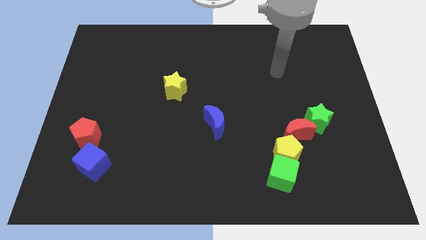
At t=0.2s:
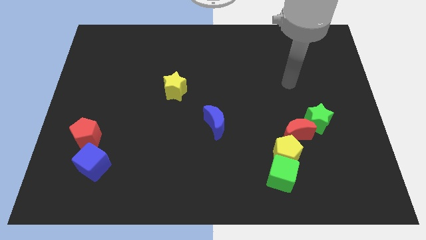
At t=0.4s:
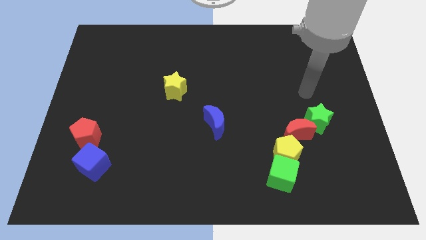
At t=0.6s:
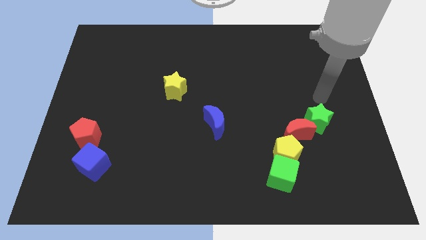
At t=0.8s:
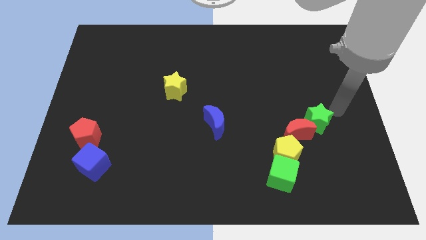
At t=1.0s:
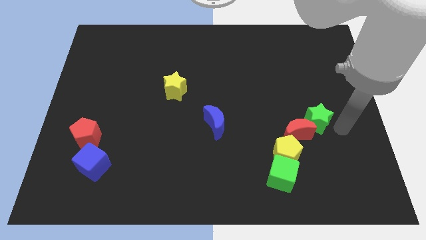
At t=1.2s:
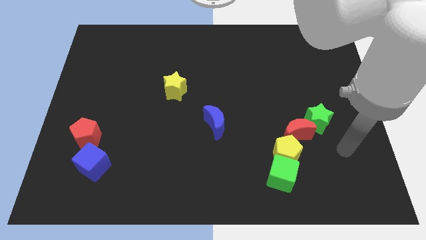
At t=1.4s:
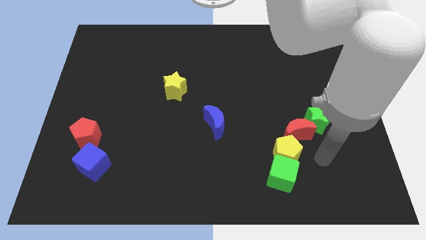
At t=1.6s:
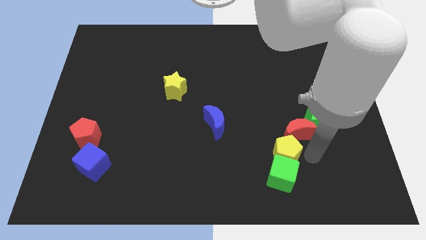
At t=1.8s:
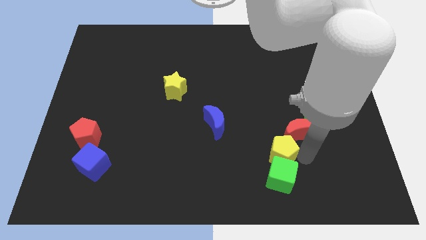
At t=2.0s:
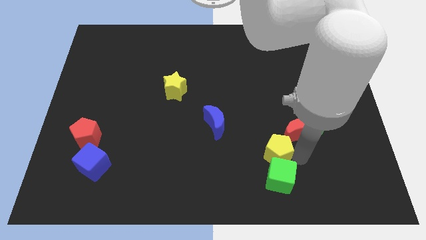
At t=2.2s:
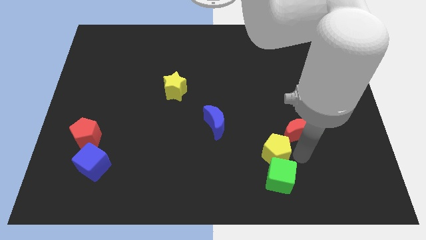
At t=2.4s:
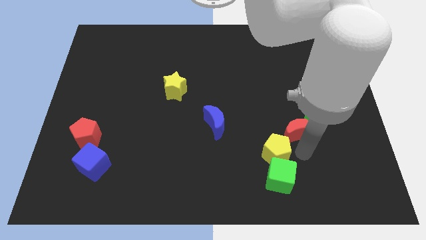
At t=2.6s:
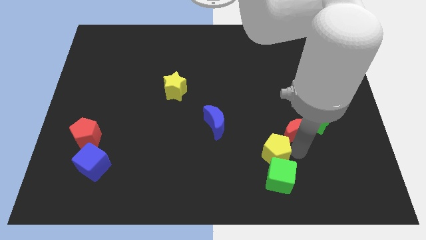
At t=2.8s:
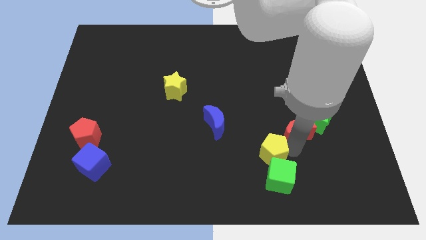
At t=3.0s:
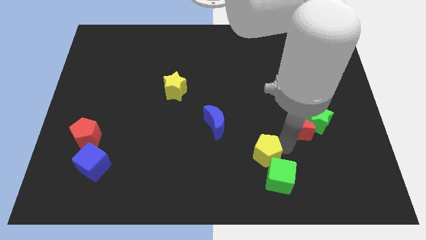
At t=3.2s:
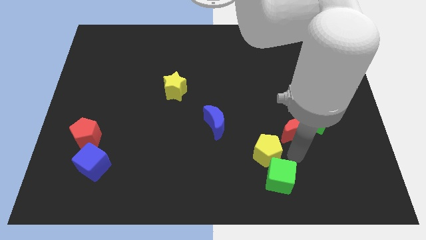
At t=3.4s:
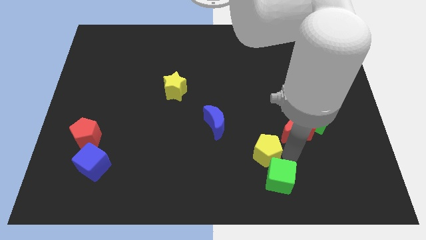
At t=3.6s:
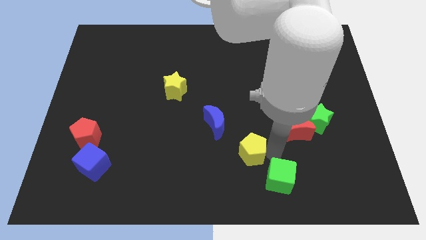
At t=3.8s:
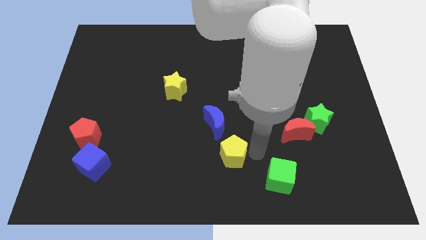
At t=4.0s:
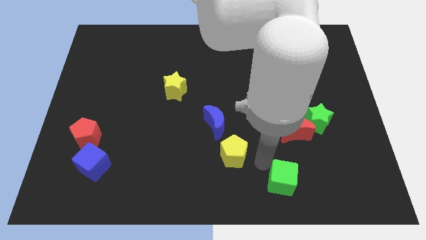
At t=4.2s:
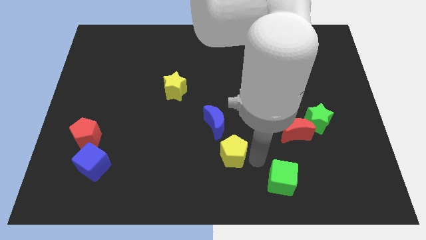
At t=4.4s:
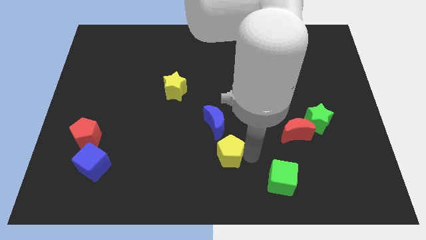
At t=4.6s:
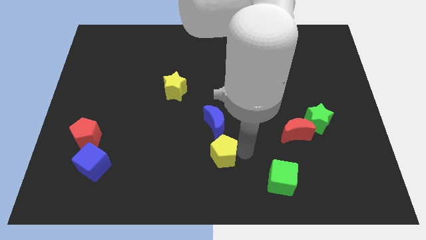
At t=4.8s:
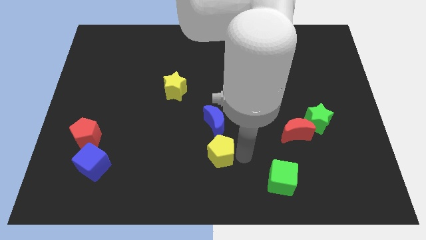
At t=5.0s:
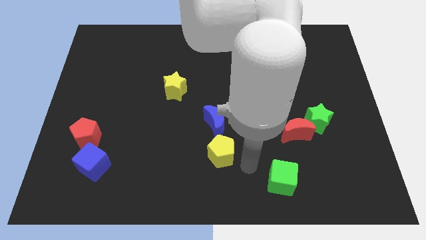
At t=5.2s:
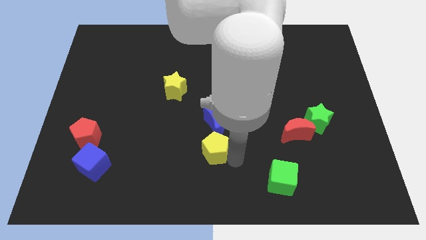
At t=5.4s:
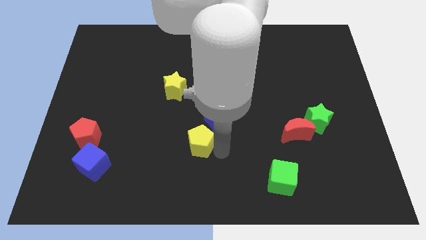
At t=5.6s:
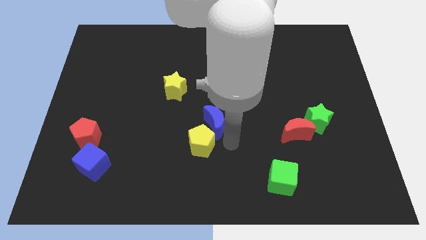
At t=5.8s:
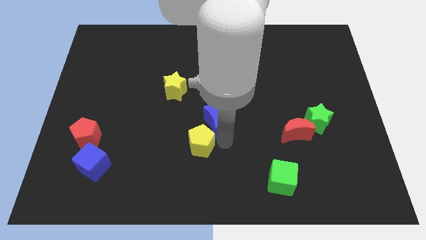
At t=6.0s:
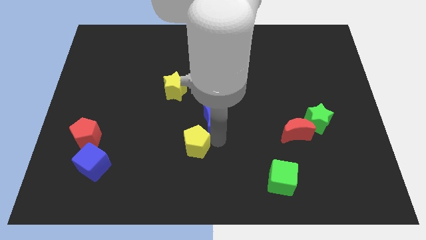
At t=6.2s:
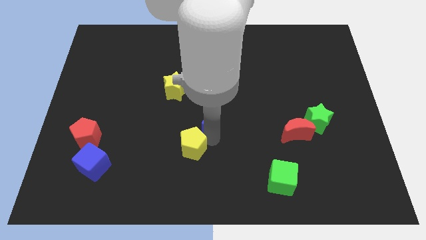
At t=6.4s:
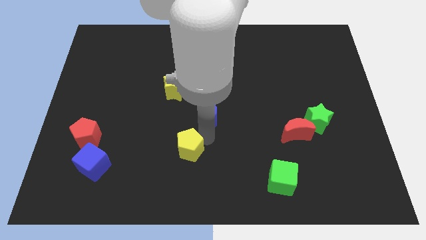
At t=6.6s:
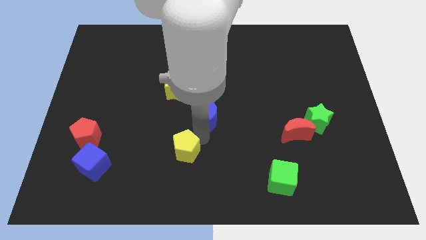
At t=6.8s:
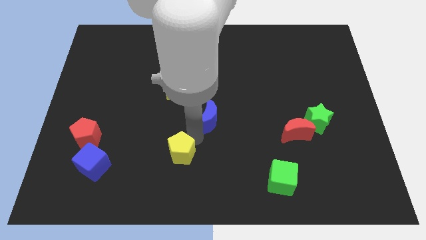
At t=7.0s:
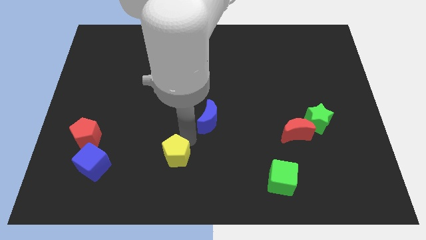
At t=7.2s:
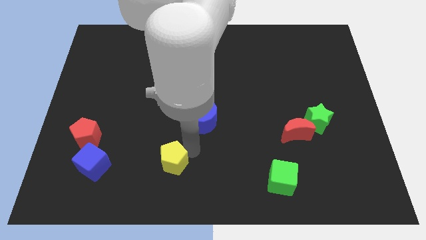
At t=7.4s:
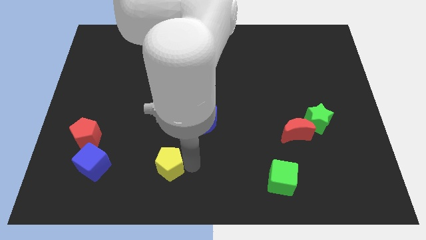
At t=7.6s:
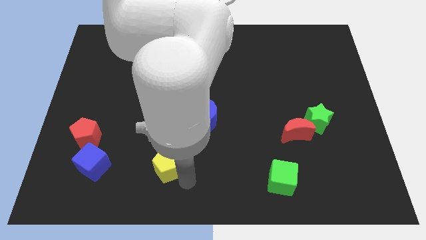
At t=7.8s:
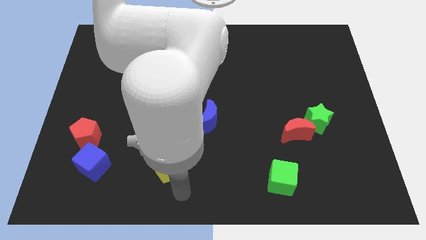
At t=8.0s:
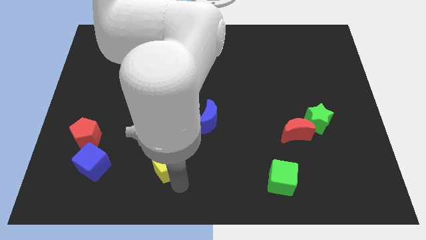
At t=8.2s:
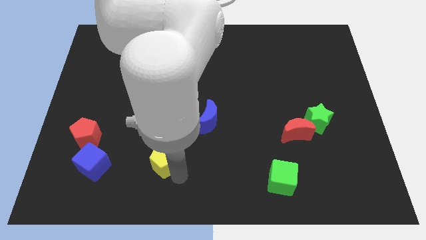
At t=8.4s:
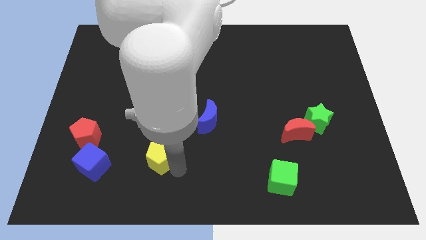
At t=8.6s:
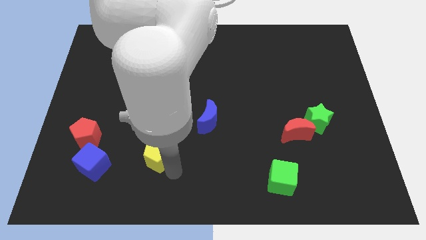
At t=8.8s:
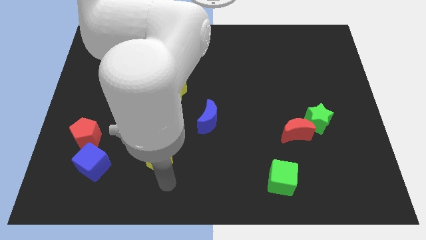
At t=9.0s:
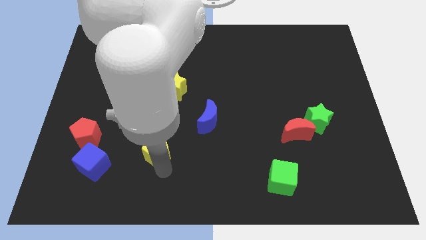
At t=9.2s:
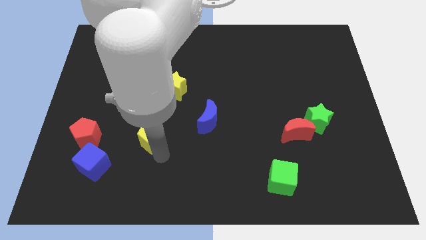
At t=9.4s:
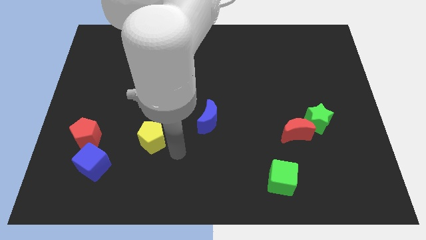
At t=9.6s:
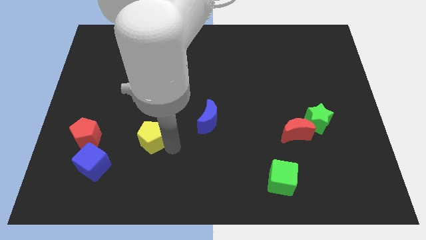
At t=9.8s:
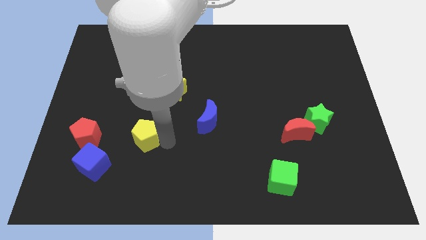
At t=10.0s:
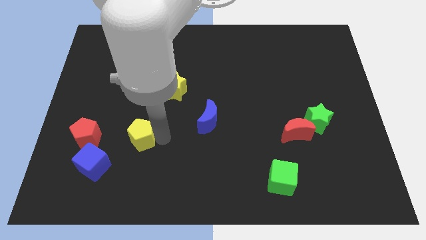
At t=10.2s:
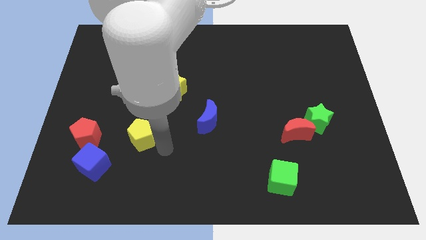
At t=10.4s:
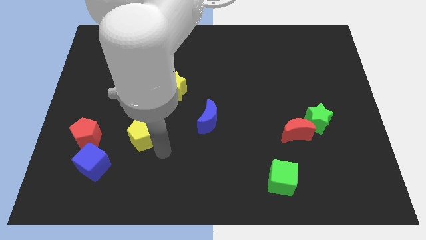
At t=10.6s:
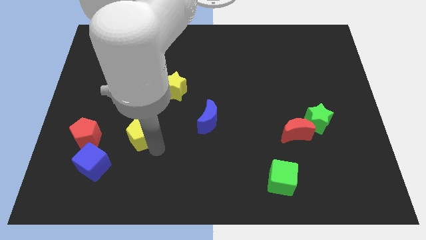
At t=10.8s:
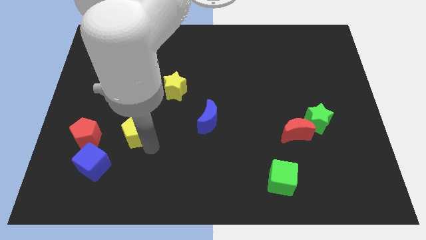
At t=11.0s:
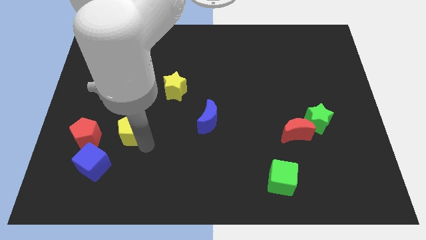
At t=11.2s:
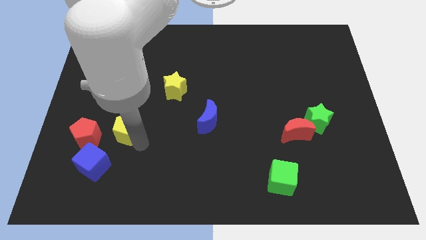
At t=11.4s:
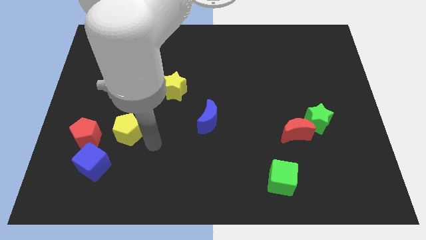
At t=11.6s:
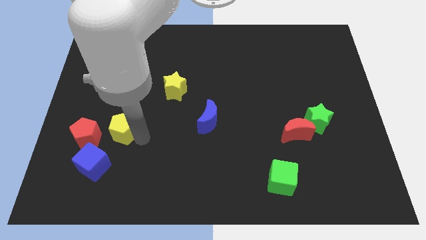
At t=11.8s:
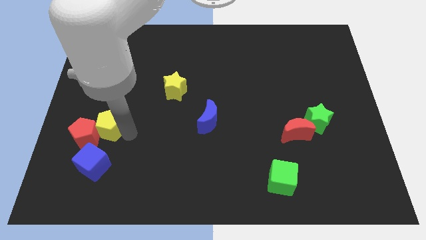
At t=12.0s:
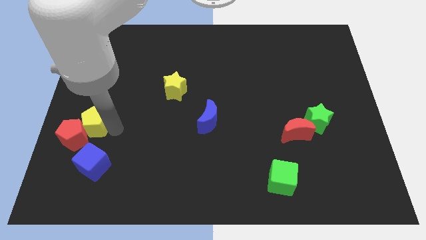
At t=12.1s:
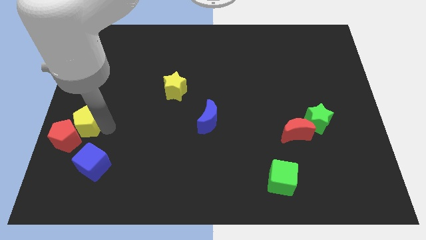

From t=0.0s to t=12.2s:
put the yellow pentagon to the center left
